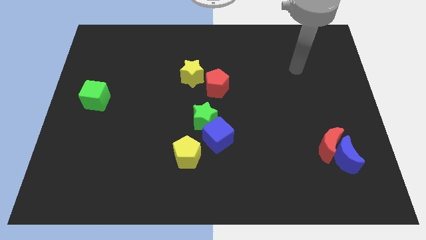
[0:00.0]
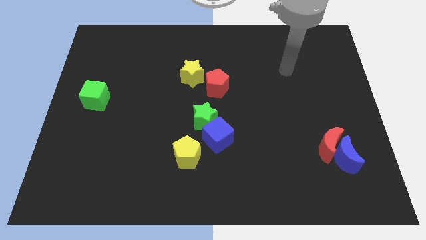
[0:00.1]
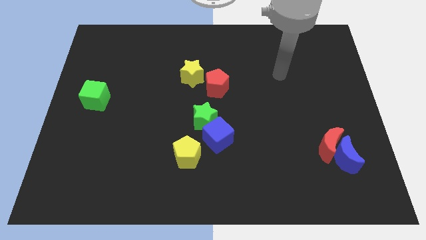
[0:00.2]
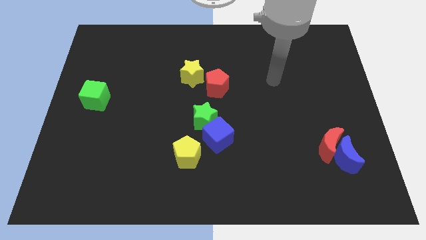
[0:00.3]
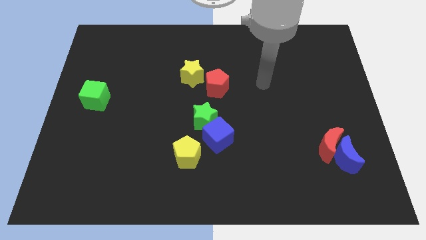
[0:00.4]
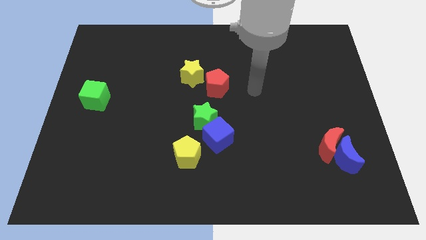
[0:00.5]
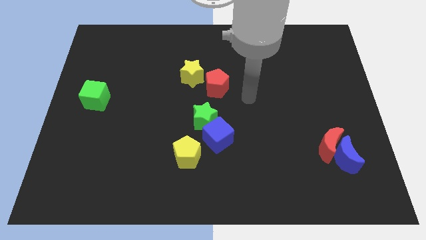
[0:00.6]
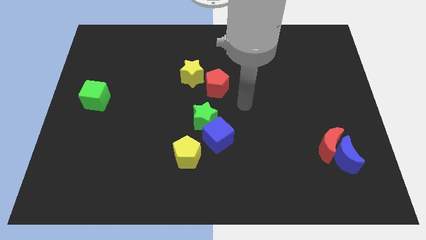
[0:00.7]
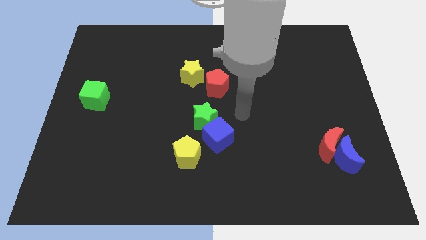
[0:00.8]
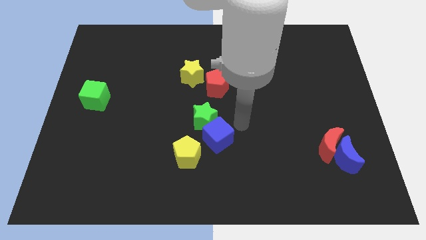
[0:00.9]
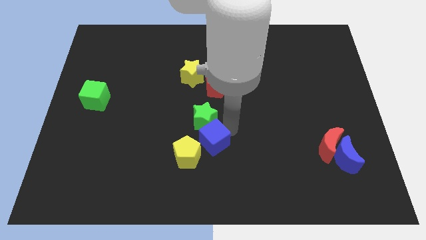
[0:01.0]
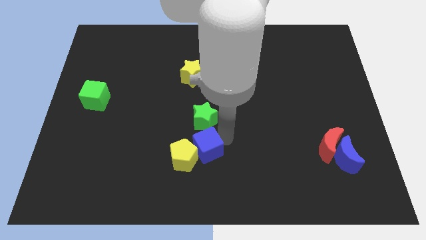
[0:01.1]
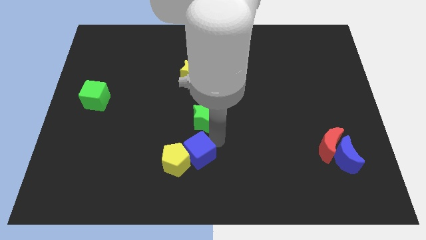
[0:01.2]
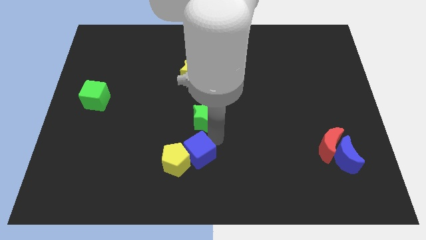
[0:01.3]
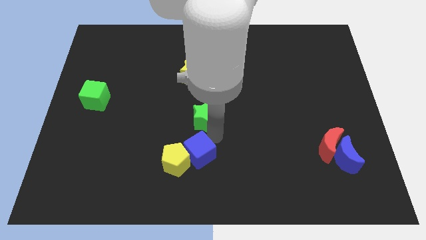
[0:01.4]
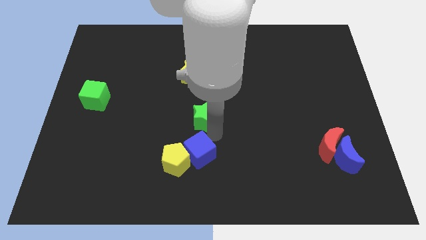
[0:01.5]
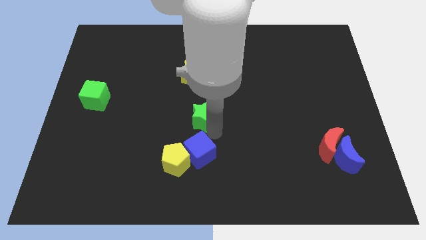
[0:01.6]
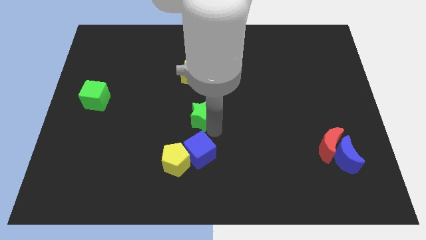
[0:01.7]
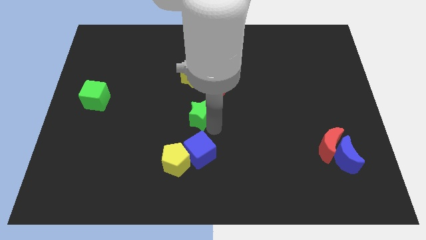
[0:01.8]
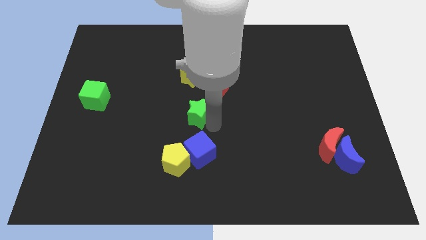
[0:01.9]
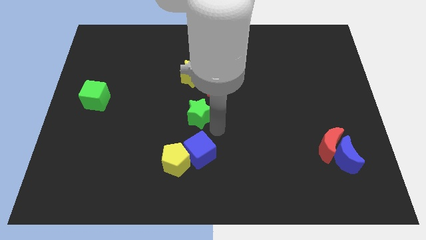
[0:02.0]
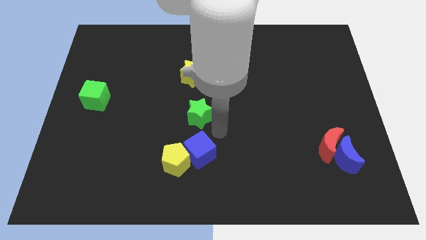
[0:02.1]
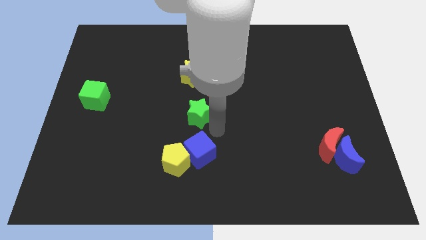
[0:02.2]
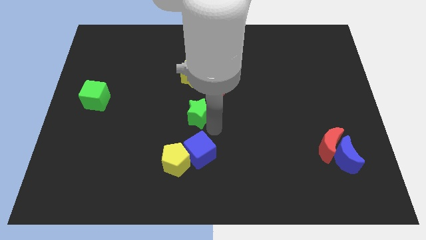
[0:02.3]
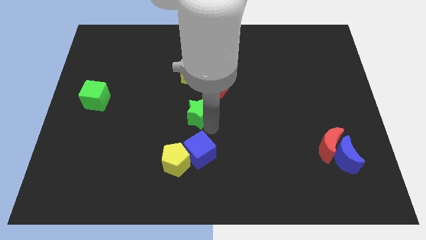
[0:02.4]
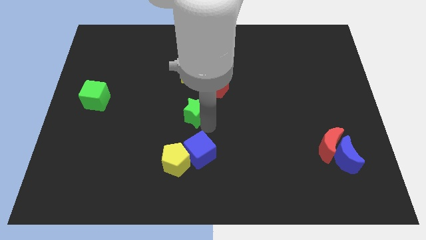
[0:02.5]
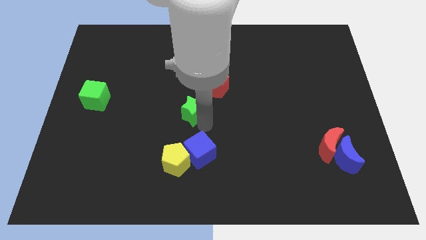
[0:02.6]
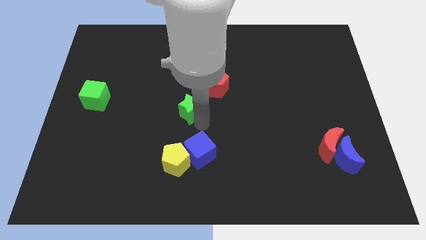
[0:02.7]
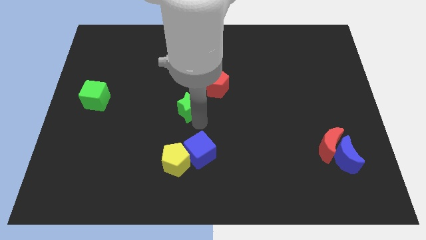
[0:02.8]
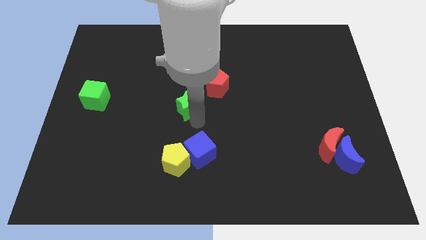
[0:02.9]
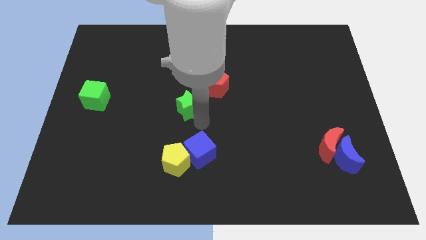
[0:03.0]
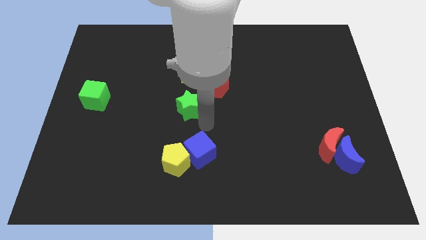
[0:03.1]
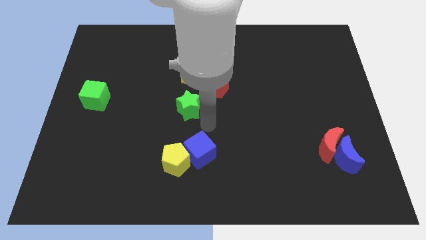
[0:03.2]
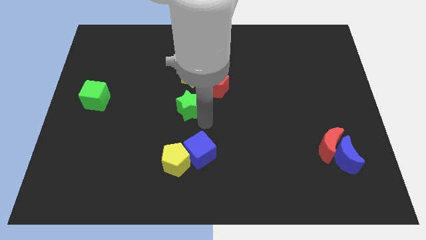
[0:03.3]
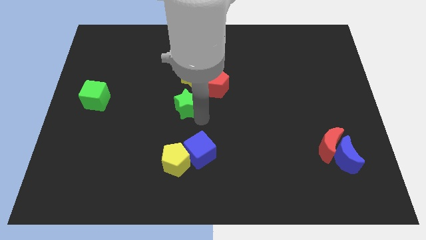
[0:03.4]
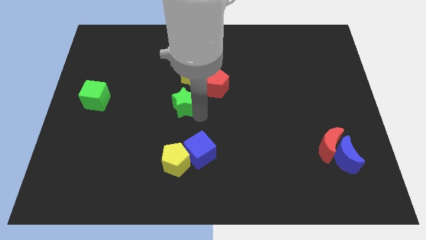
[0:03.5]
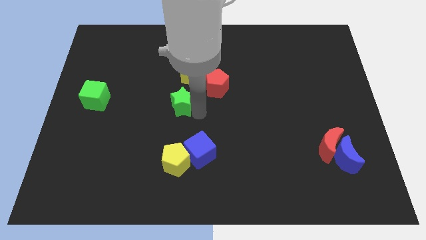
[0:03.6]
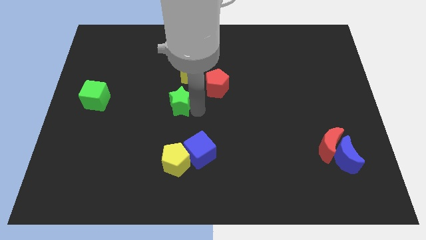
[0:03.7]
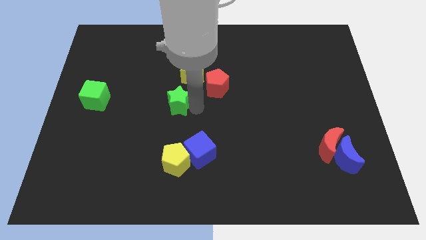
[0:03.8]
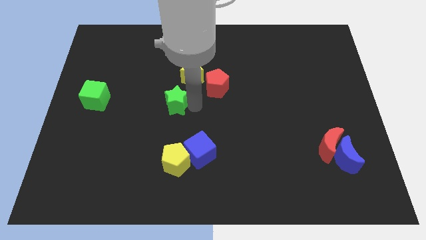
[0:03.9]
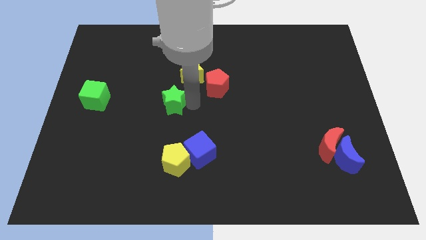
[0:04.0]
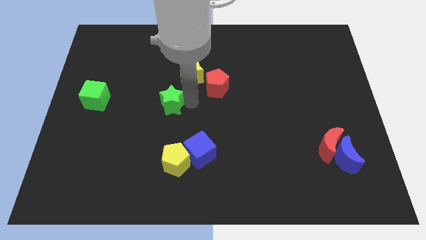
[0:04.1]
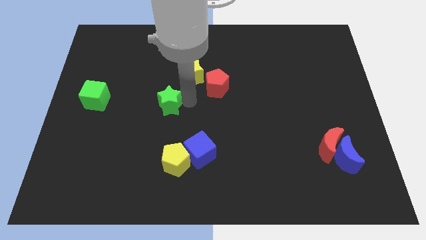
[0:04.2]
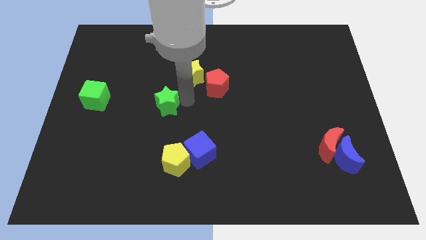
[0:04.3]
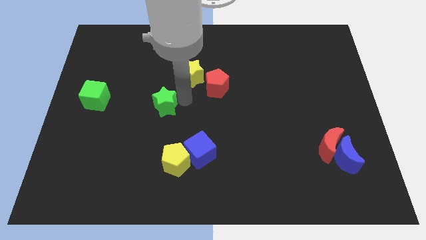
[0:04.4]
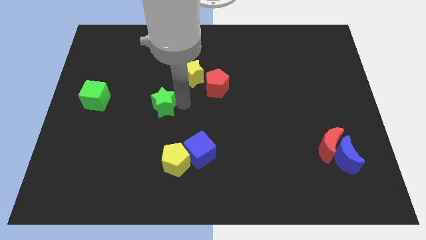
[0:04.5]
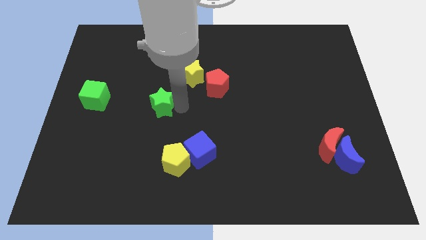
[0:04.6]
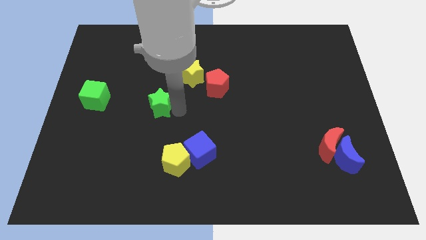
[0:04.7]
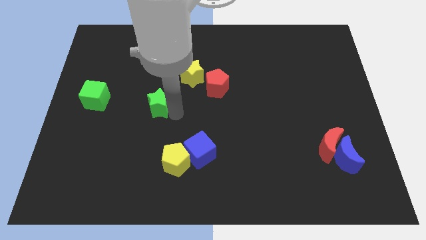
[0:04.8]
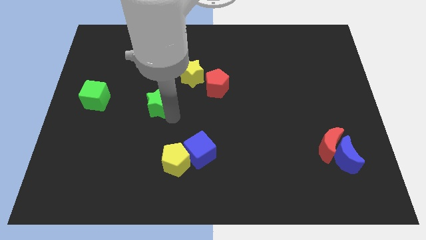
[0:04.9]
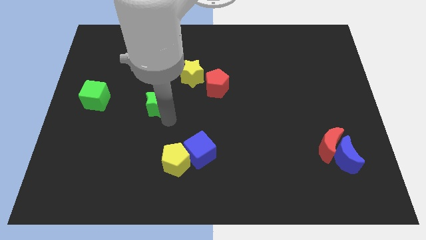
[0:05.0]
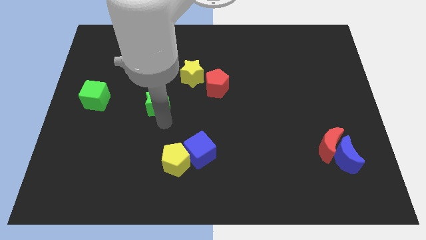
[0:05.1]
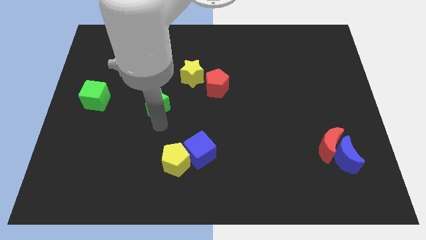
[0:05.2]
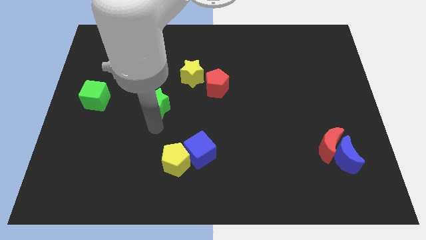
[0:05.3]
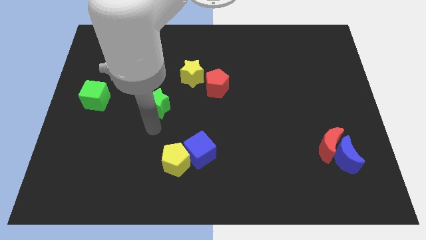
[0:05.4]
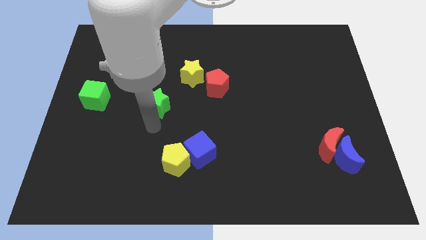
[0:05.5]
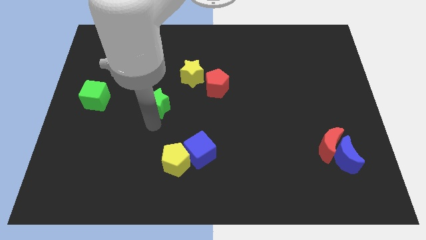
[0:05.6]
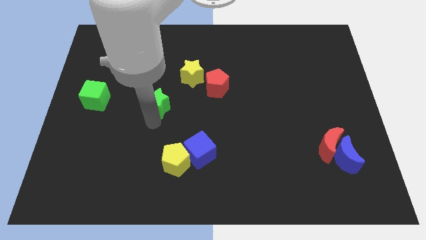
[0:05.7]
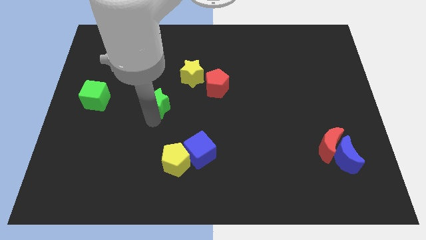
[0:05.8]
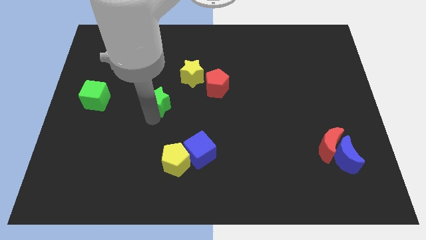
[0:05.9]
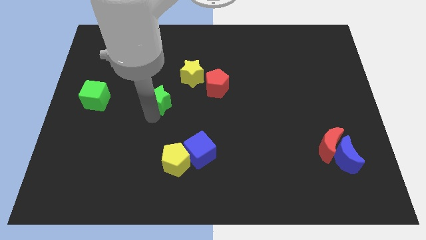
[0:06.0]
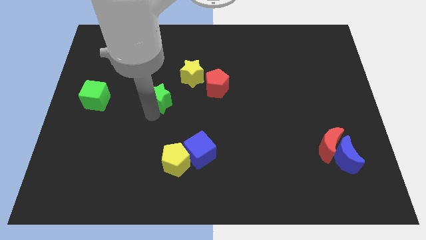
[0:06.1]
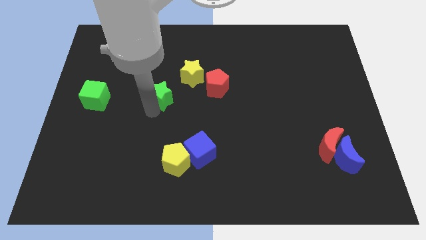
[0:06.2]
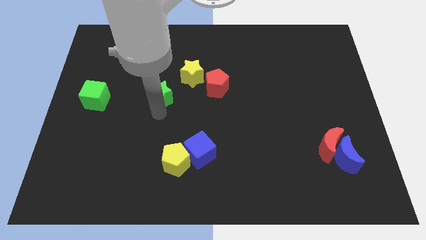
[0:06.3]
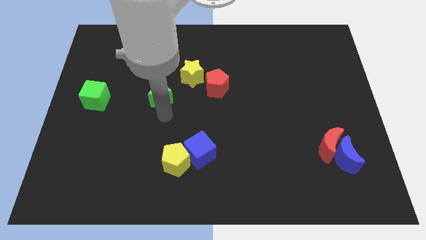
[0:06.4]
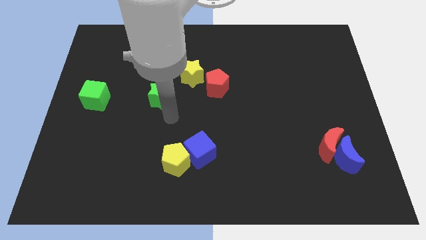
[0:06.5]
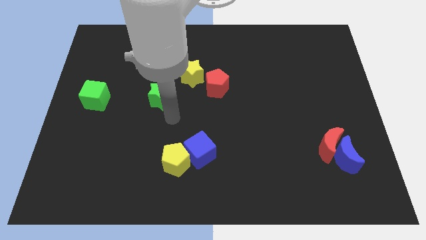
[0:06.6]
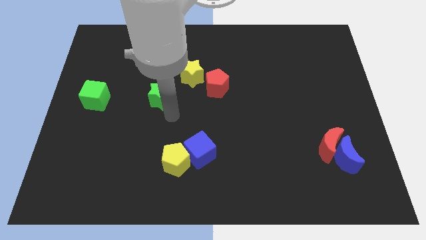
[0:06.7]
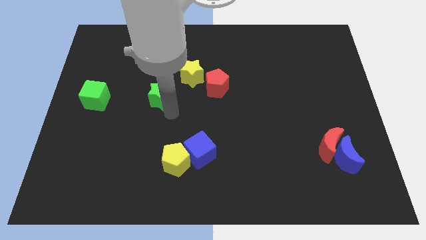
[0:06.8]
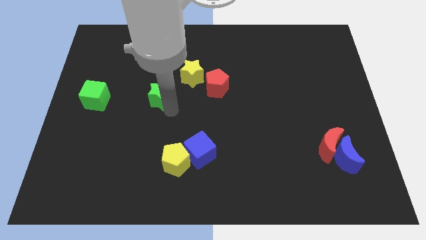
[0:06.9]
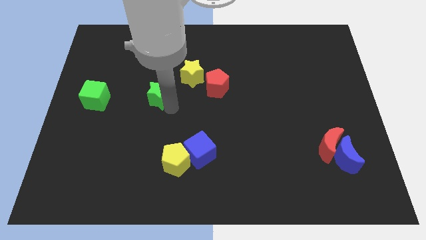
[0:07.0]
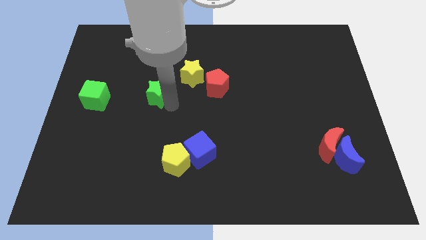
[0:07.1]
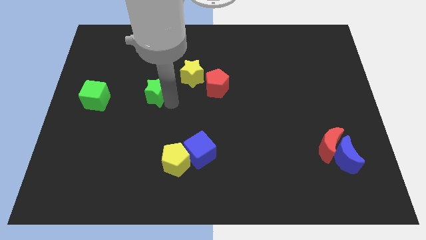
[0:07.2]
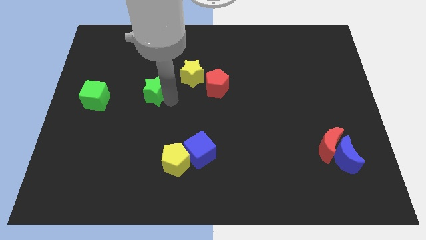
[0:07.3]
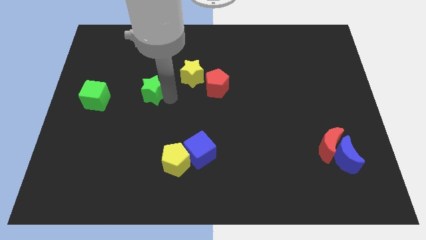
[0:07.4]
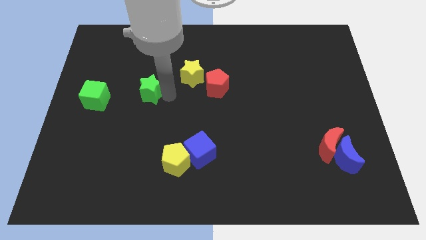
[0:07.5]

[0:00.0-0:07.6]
push the green star just left of the yellow star

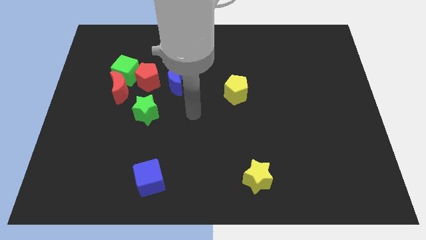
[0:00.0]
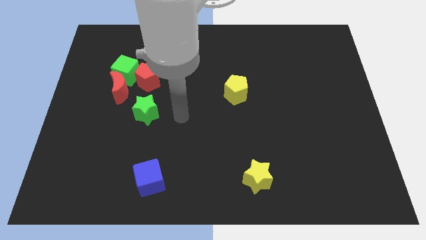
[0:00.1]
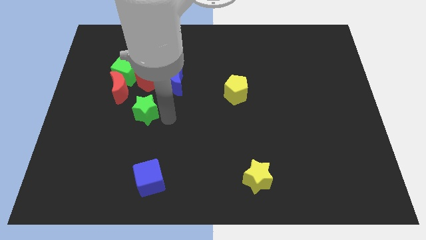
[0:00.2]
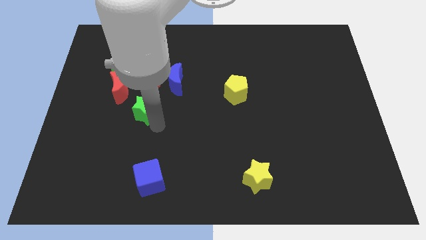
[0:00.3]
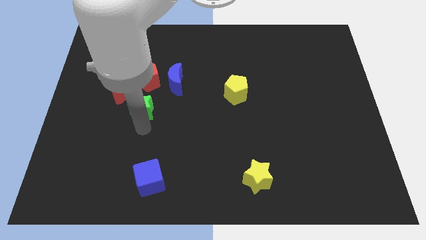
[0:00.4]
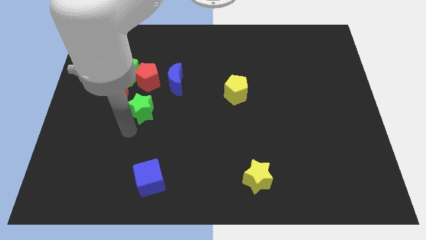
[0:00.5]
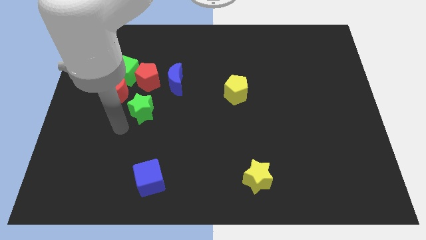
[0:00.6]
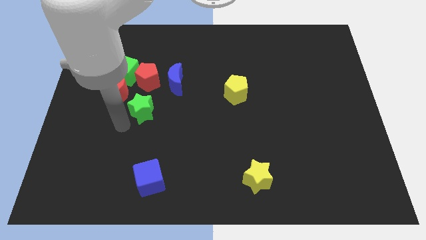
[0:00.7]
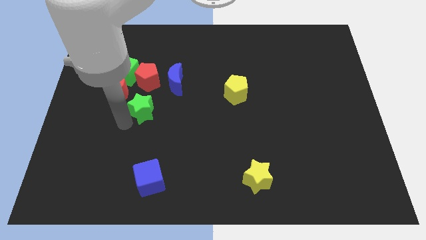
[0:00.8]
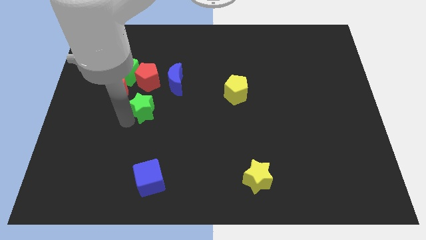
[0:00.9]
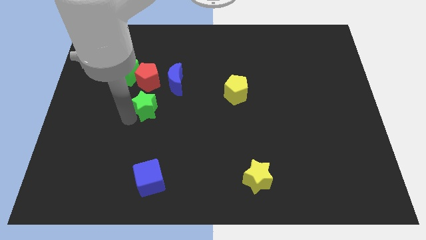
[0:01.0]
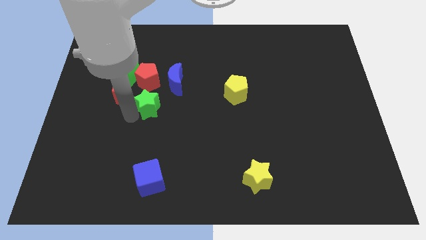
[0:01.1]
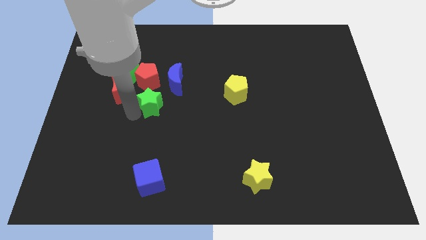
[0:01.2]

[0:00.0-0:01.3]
push the green star to the bottom right of the red pentagon
